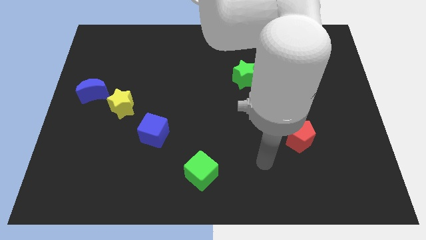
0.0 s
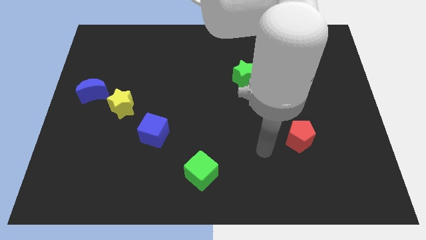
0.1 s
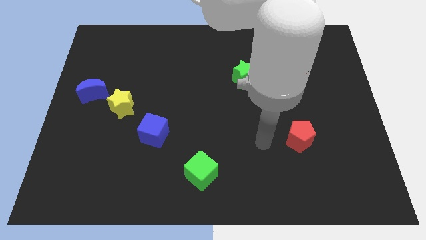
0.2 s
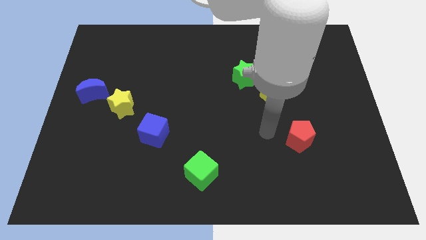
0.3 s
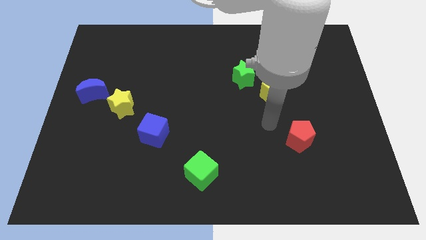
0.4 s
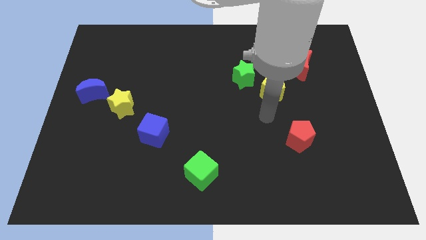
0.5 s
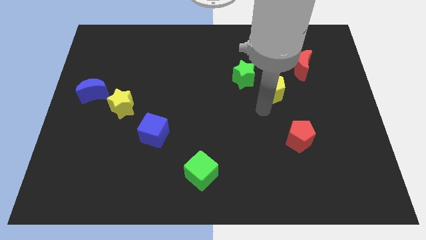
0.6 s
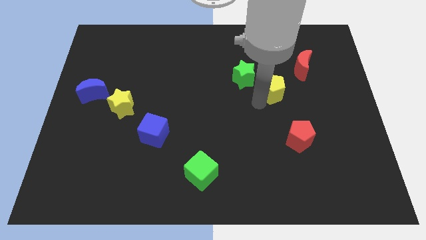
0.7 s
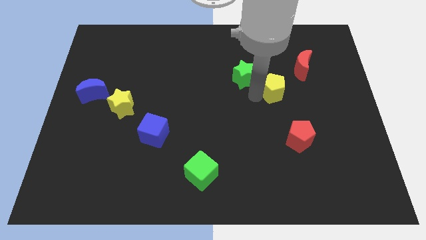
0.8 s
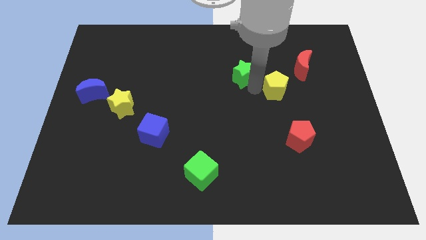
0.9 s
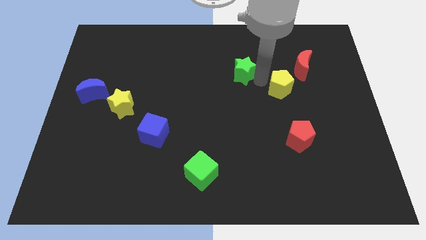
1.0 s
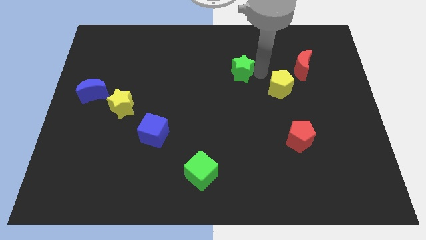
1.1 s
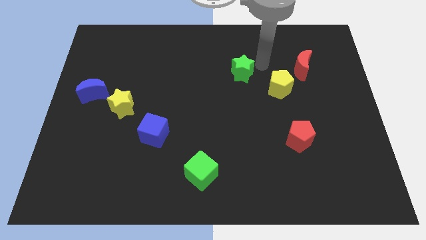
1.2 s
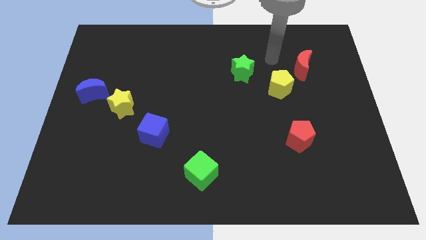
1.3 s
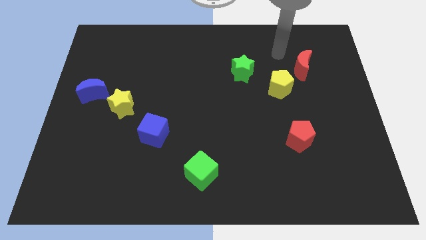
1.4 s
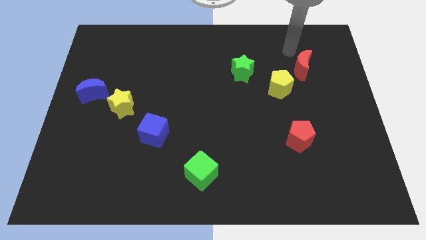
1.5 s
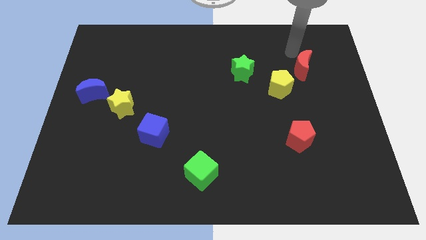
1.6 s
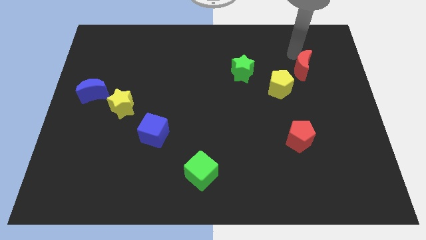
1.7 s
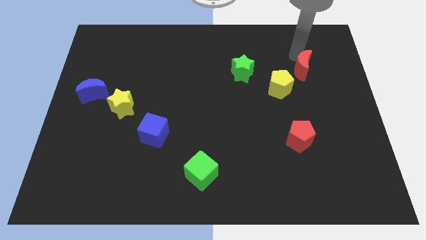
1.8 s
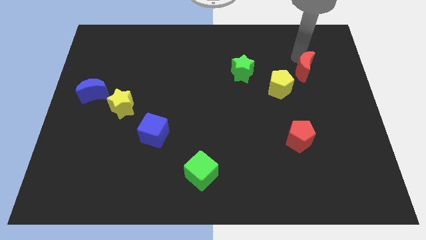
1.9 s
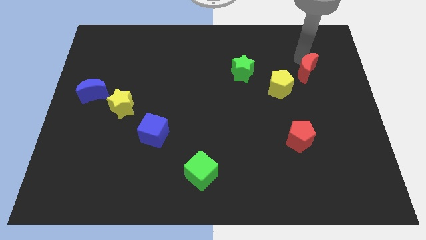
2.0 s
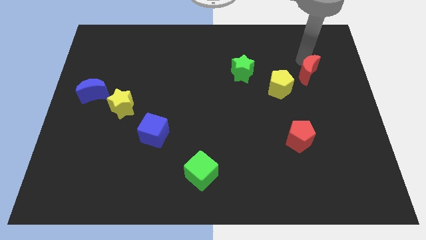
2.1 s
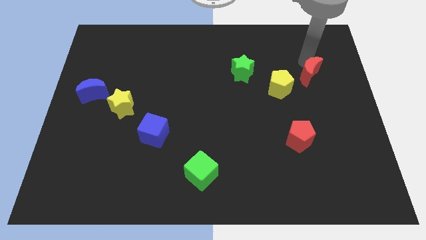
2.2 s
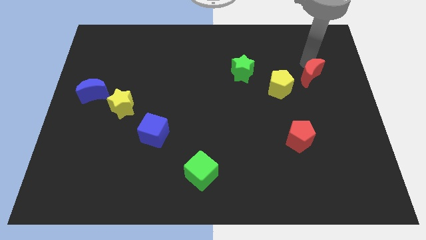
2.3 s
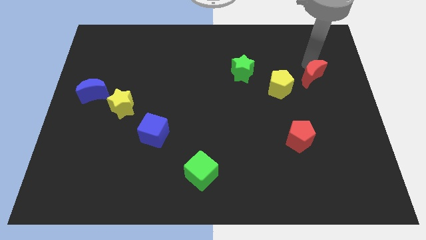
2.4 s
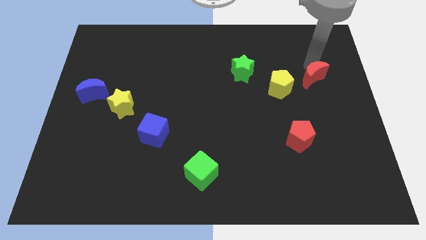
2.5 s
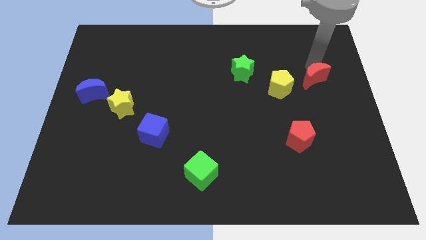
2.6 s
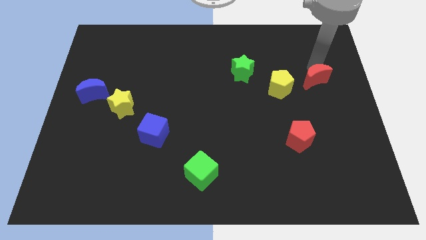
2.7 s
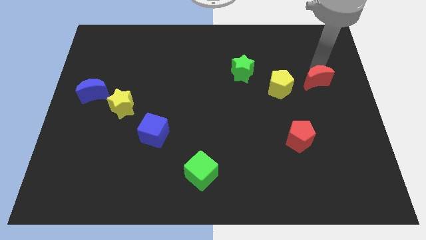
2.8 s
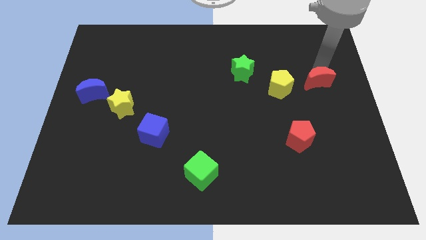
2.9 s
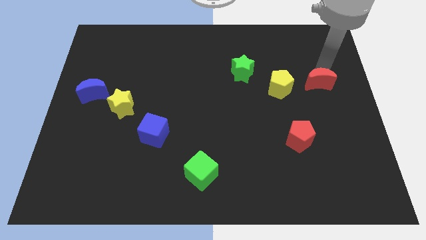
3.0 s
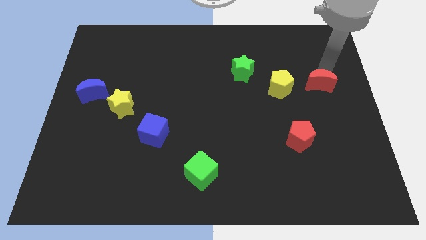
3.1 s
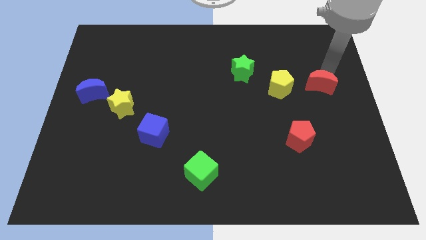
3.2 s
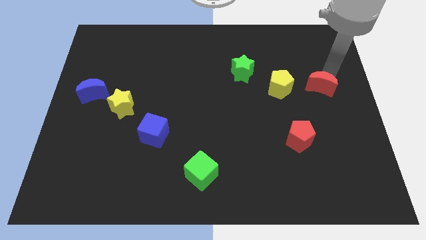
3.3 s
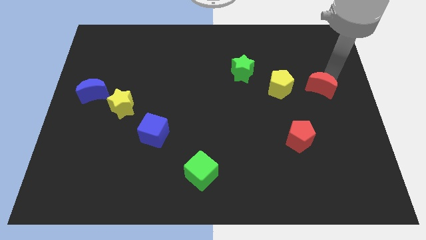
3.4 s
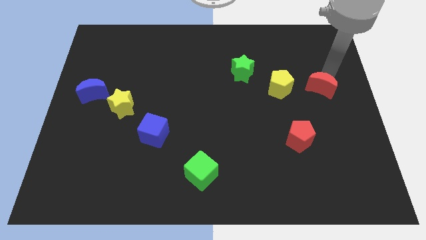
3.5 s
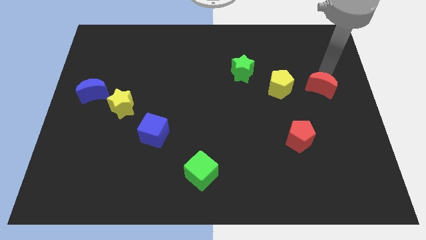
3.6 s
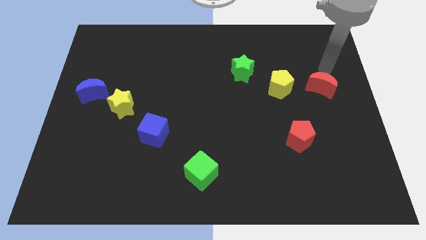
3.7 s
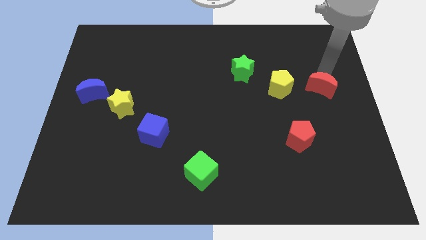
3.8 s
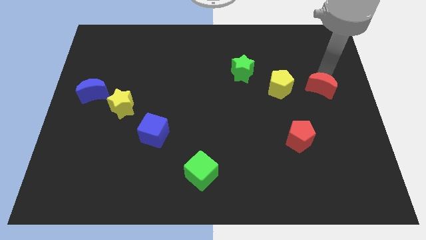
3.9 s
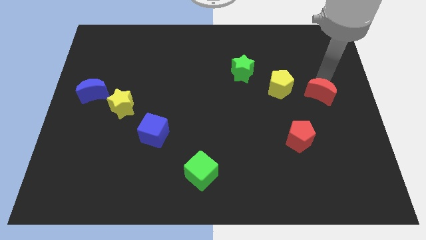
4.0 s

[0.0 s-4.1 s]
slightly push the red moon down

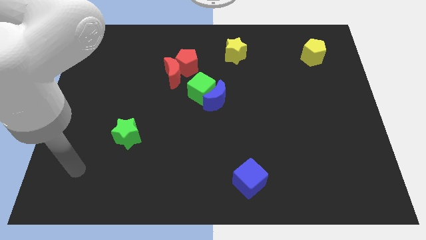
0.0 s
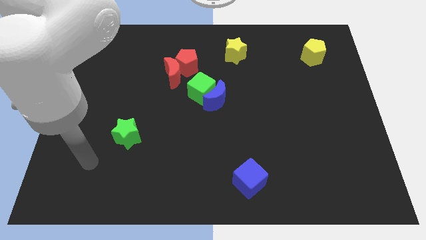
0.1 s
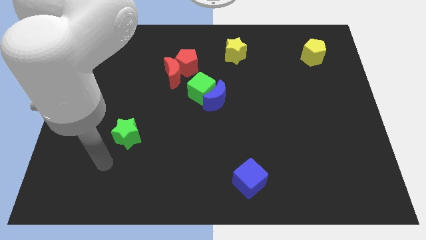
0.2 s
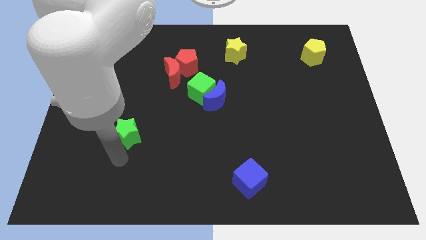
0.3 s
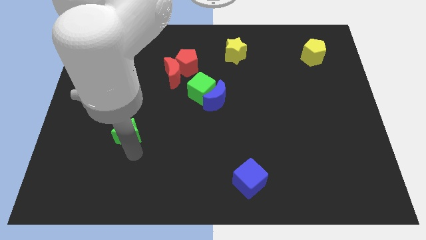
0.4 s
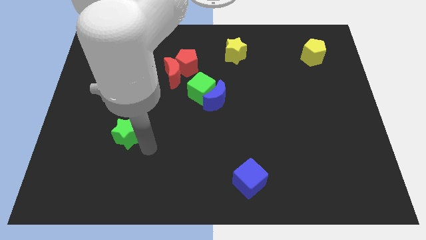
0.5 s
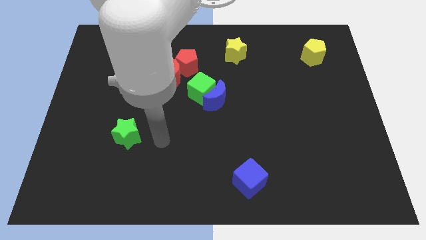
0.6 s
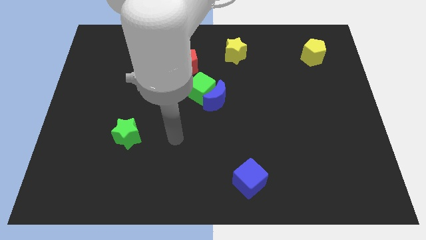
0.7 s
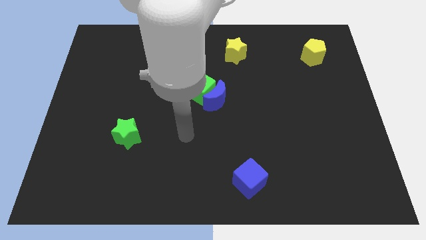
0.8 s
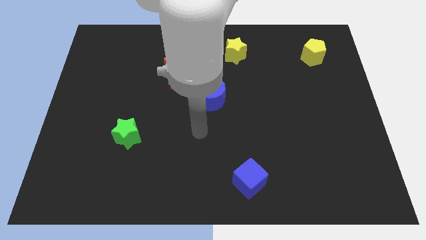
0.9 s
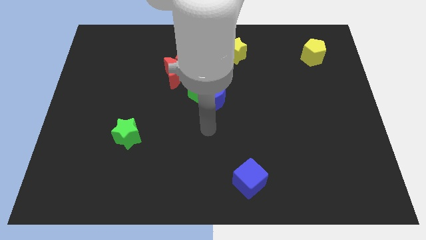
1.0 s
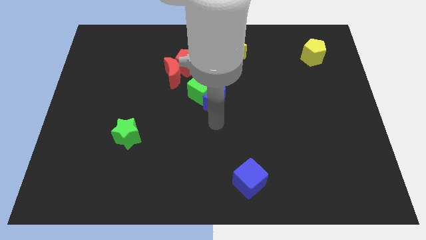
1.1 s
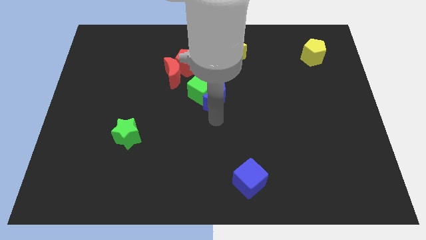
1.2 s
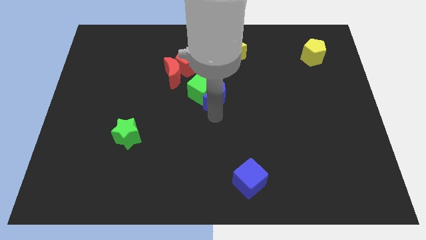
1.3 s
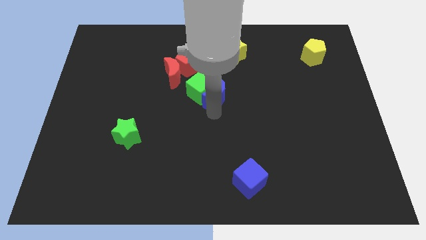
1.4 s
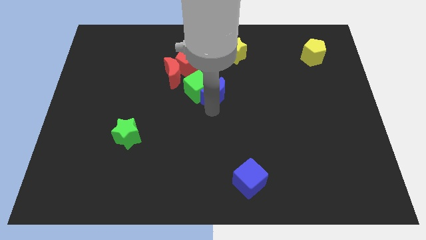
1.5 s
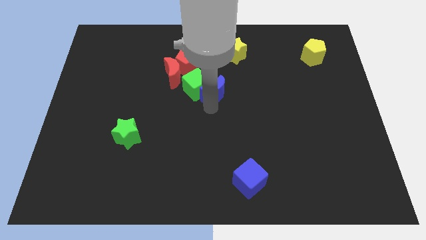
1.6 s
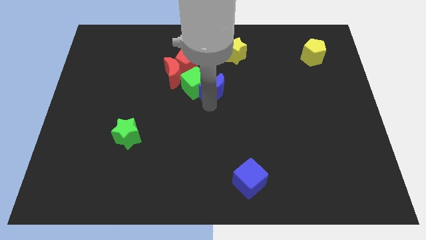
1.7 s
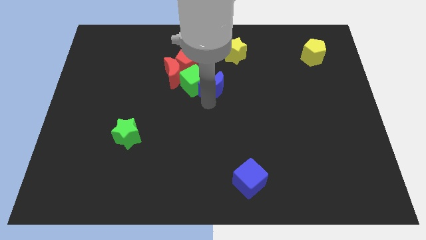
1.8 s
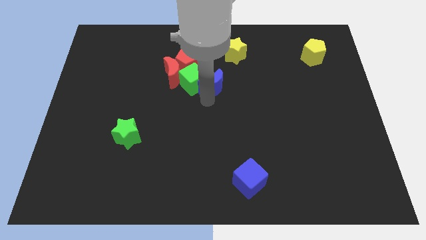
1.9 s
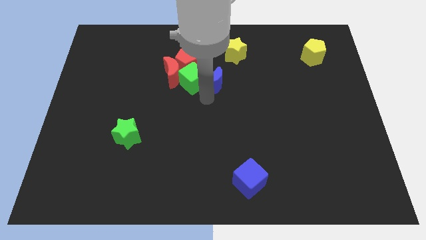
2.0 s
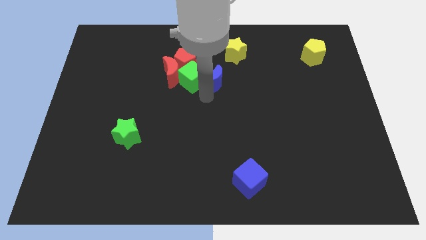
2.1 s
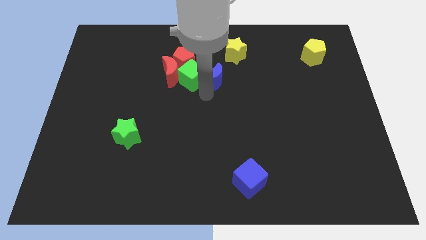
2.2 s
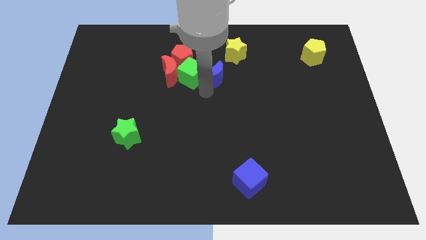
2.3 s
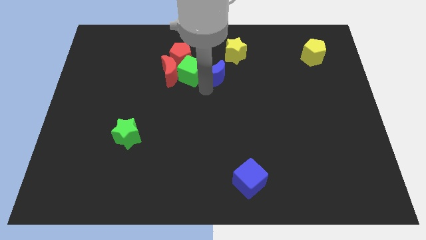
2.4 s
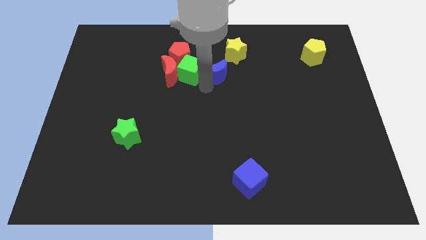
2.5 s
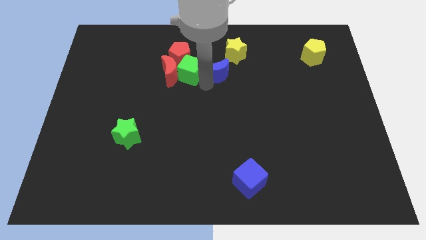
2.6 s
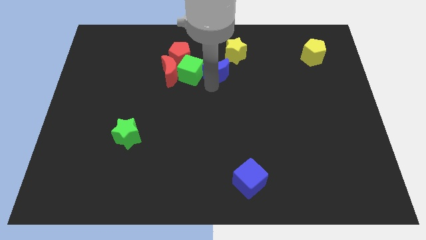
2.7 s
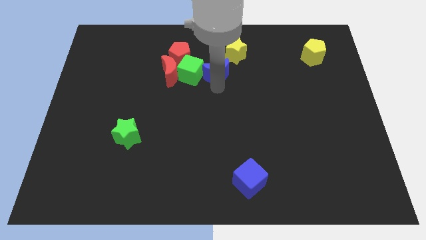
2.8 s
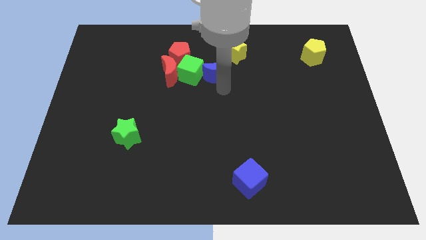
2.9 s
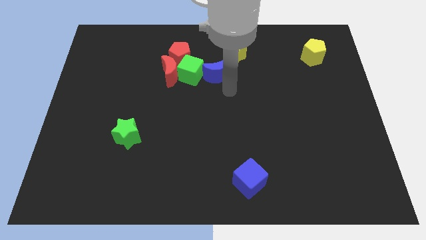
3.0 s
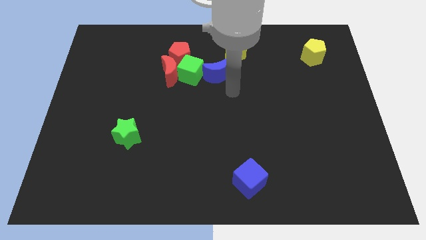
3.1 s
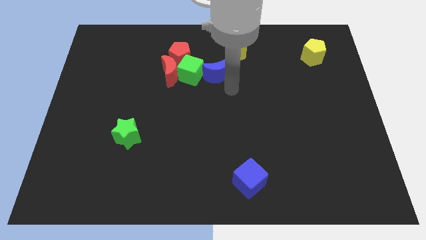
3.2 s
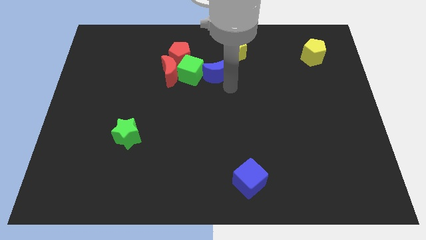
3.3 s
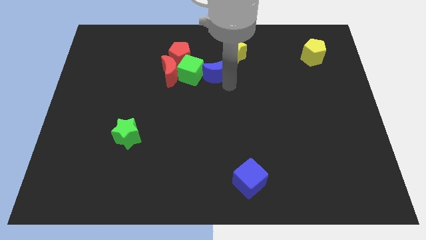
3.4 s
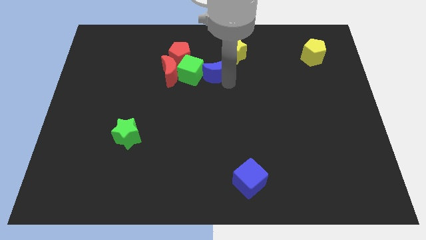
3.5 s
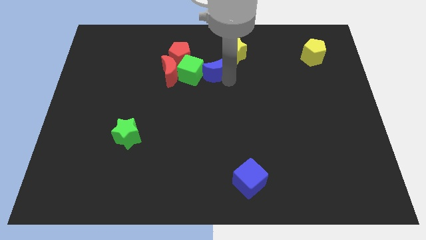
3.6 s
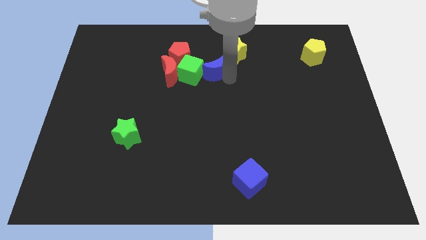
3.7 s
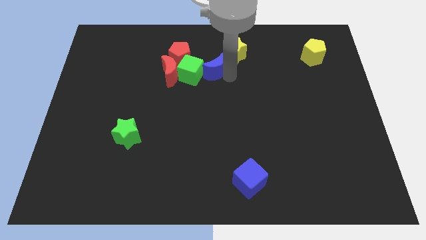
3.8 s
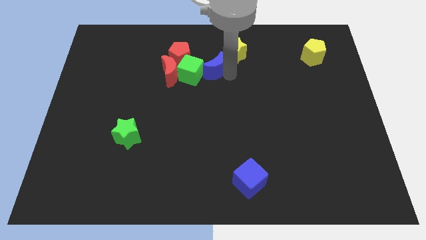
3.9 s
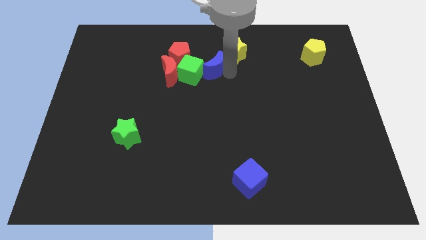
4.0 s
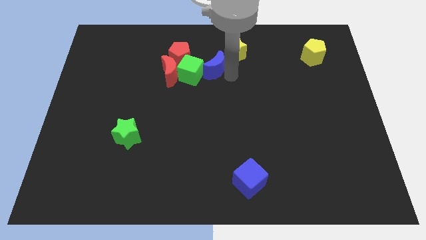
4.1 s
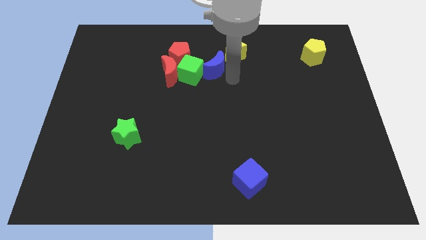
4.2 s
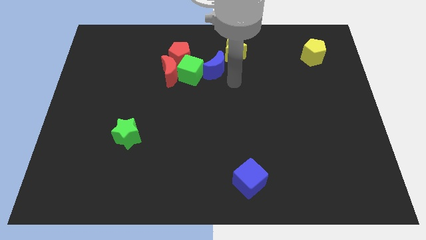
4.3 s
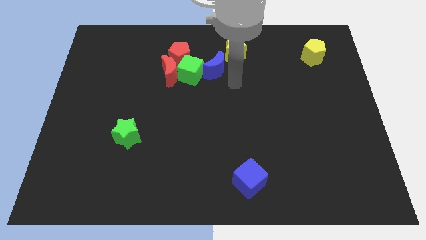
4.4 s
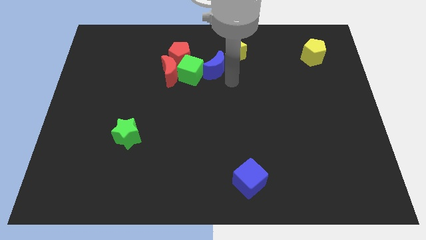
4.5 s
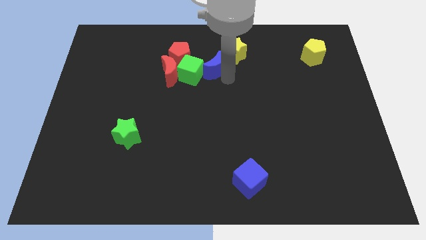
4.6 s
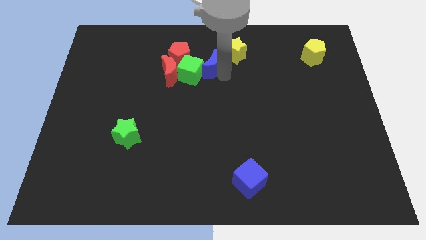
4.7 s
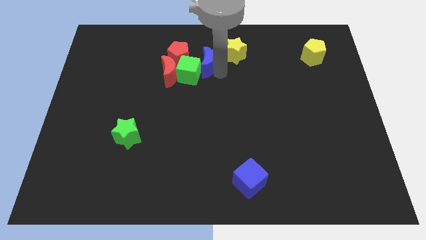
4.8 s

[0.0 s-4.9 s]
push the blue moon a bit upwards and left diagonally
